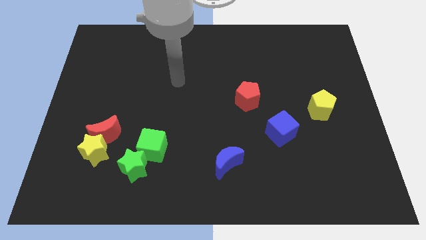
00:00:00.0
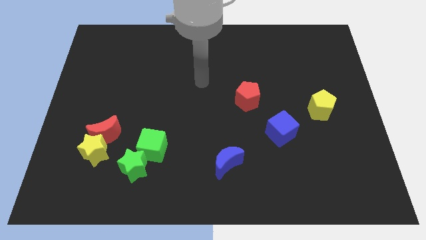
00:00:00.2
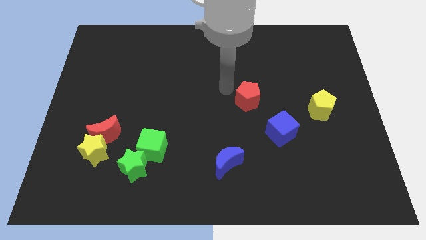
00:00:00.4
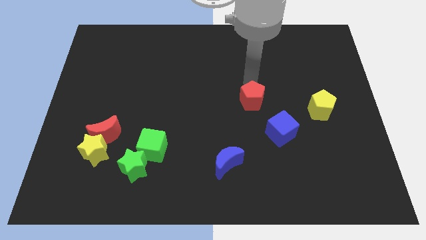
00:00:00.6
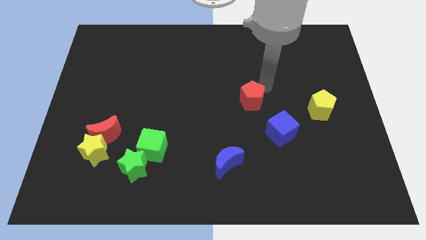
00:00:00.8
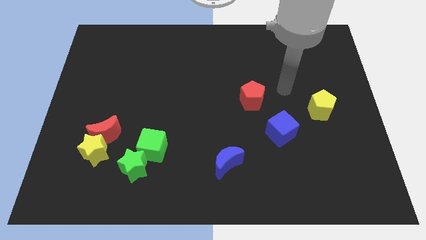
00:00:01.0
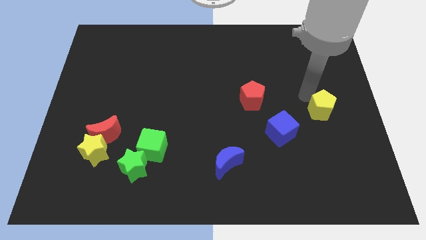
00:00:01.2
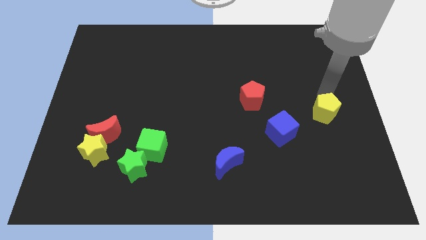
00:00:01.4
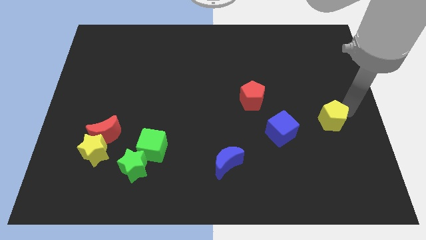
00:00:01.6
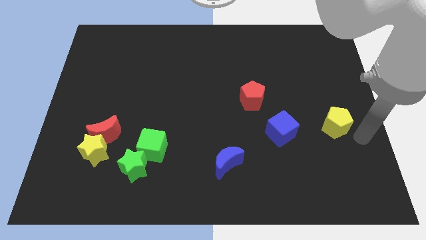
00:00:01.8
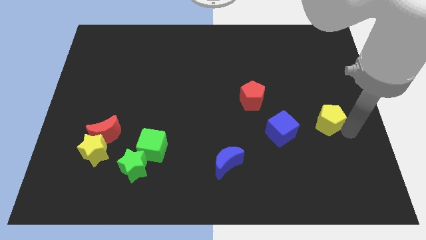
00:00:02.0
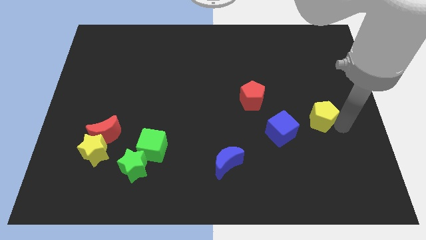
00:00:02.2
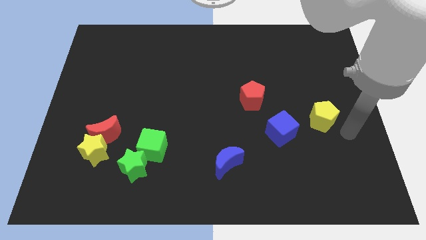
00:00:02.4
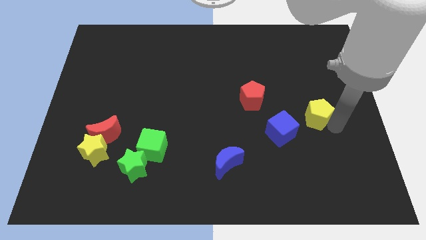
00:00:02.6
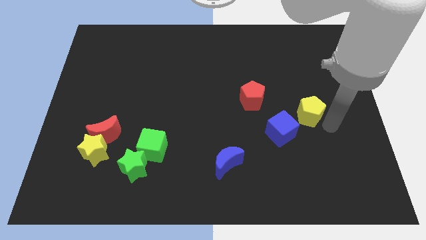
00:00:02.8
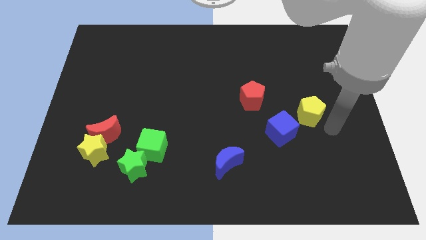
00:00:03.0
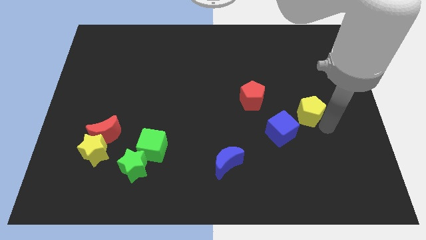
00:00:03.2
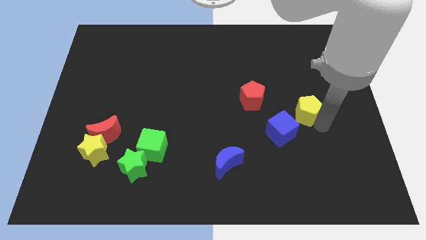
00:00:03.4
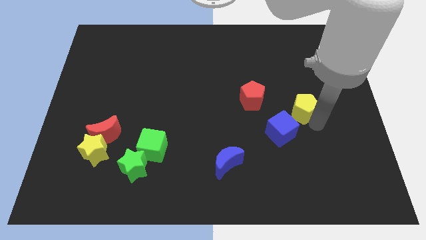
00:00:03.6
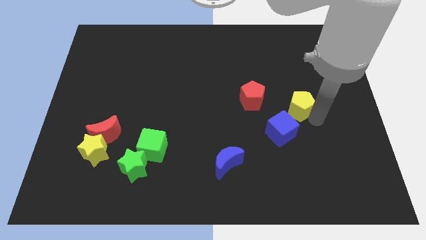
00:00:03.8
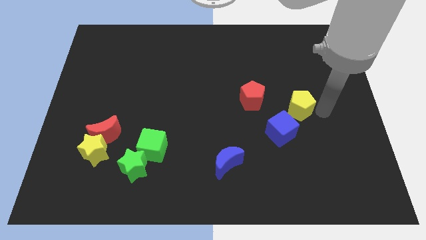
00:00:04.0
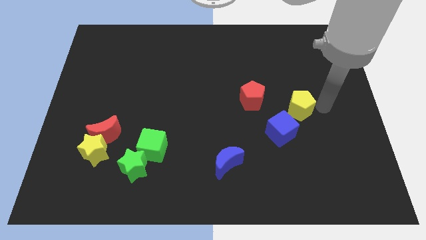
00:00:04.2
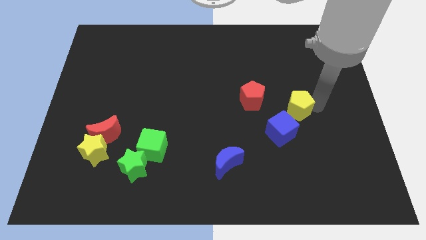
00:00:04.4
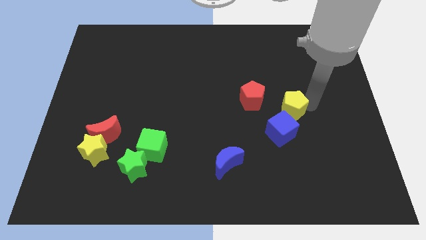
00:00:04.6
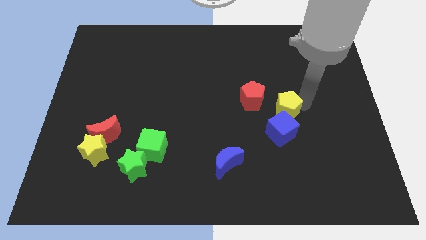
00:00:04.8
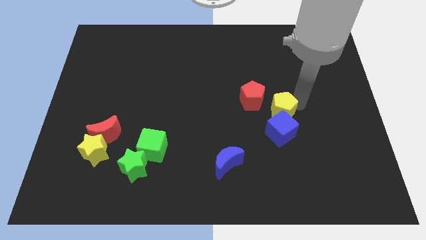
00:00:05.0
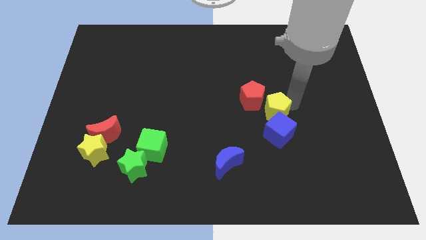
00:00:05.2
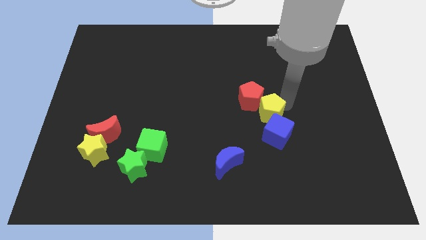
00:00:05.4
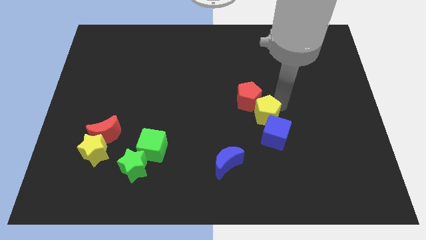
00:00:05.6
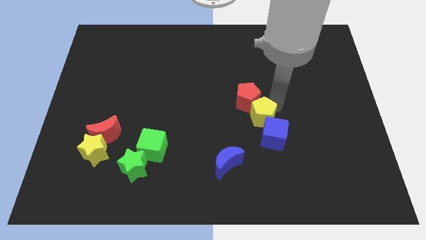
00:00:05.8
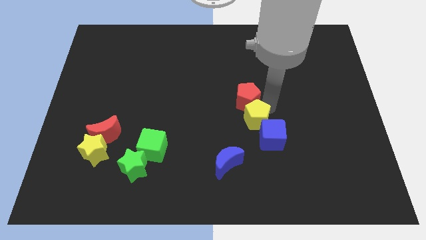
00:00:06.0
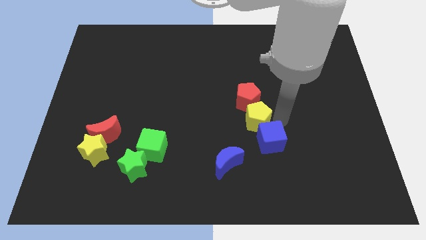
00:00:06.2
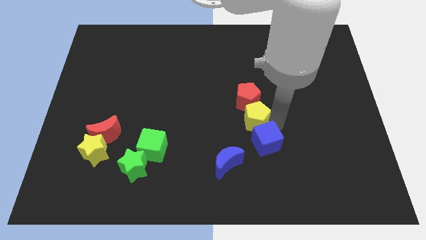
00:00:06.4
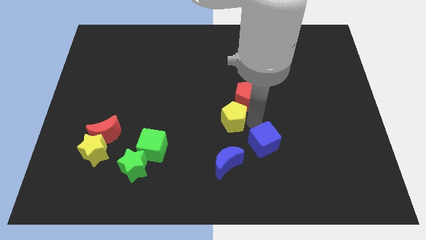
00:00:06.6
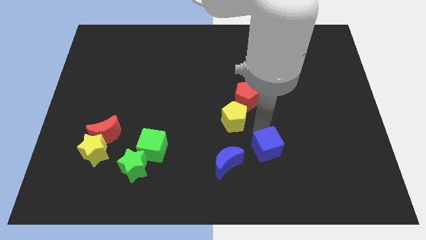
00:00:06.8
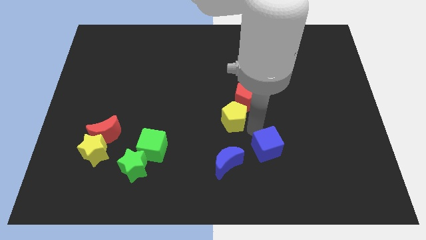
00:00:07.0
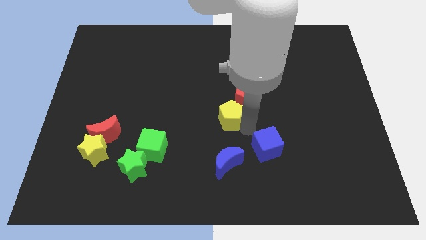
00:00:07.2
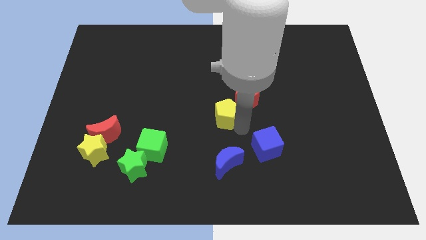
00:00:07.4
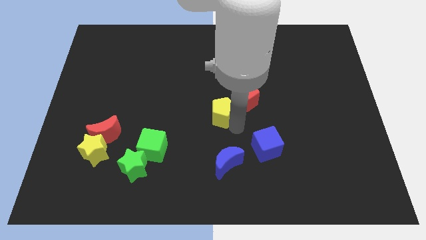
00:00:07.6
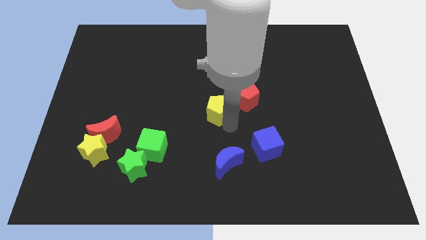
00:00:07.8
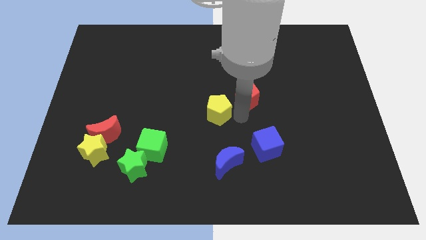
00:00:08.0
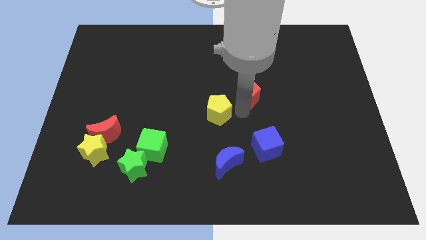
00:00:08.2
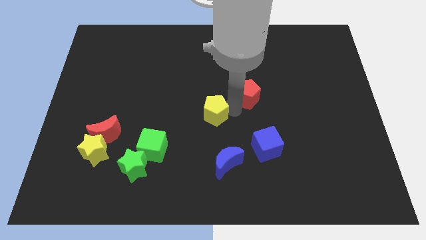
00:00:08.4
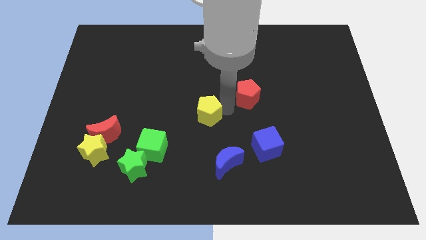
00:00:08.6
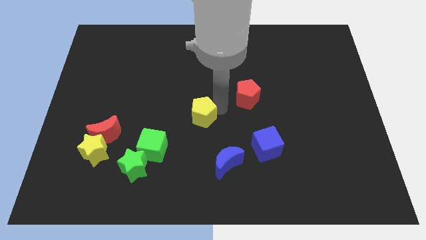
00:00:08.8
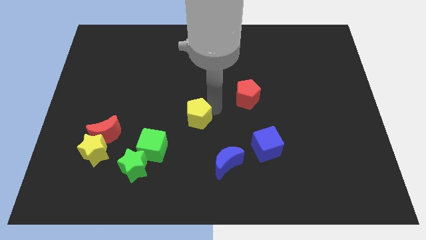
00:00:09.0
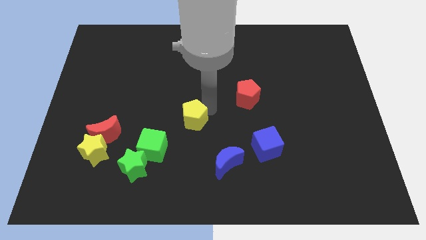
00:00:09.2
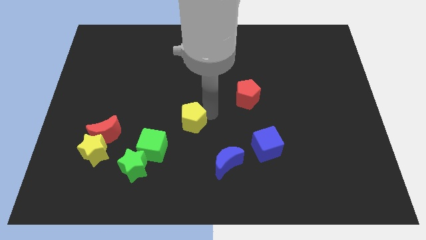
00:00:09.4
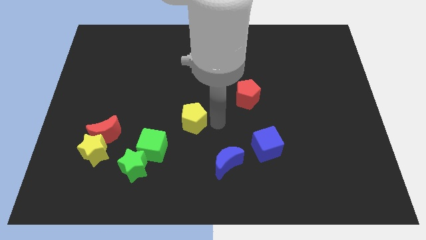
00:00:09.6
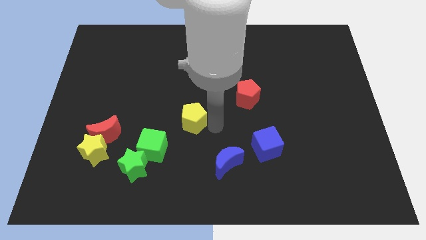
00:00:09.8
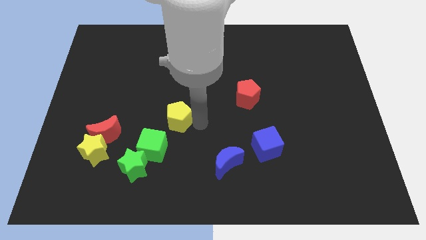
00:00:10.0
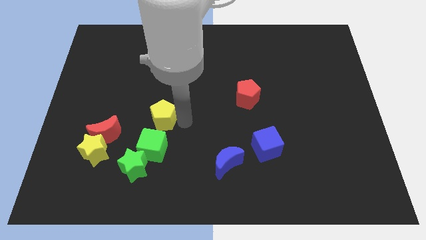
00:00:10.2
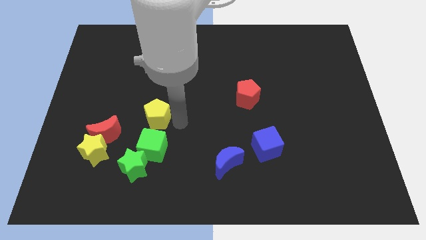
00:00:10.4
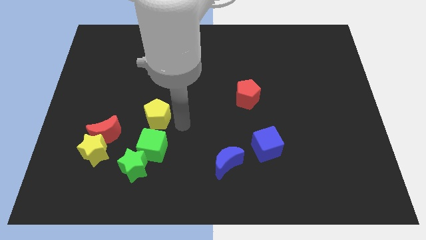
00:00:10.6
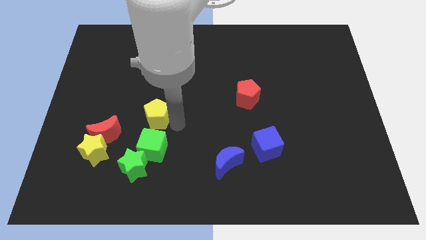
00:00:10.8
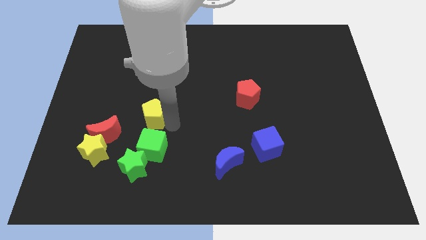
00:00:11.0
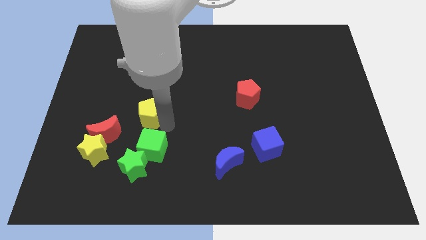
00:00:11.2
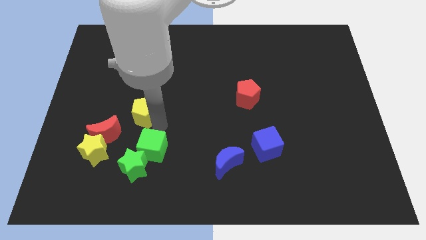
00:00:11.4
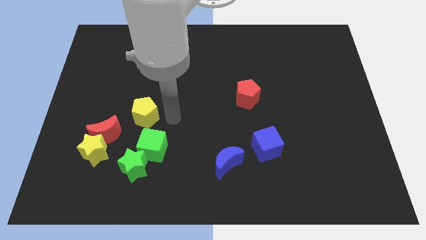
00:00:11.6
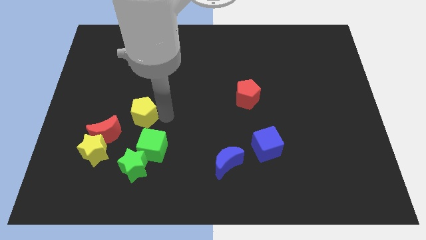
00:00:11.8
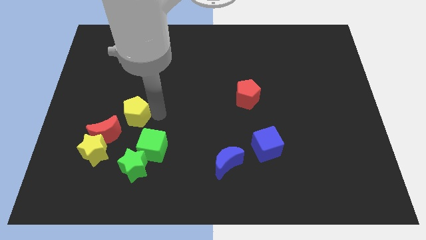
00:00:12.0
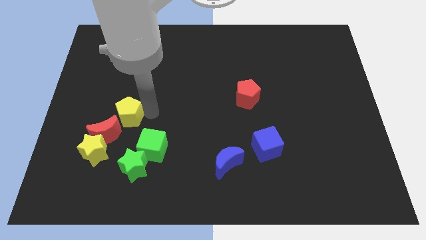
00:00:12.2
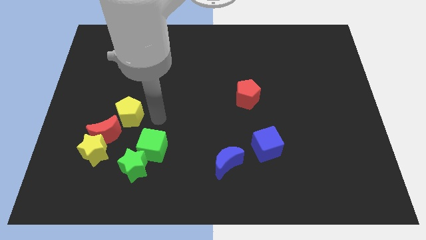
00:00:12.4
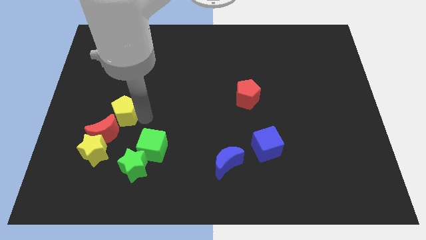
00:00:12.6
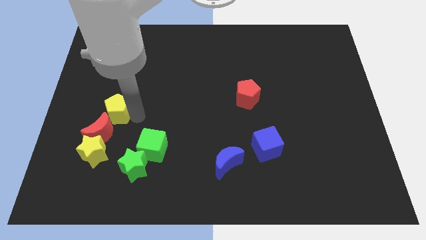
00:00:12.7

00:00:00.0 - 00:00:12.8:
put the yellow pentagon above the yellow star
